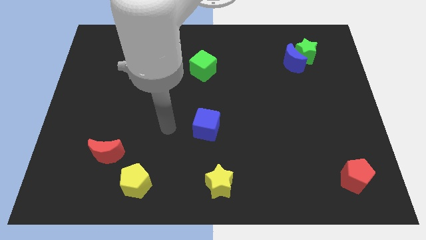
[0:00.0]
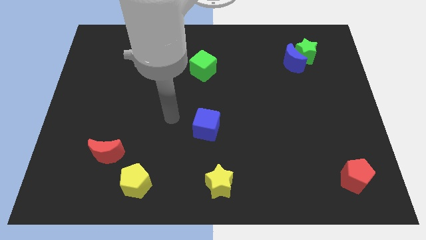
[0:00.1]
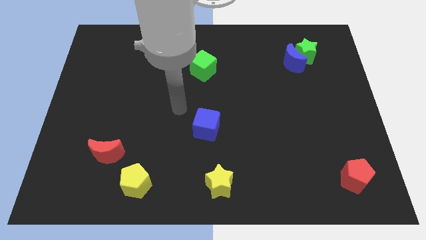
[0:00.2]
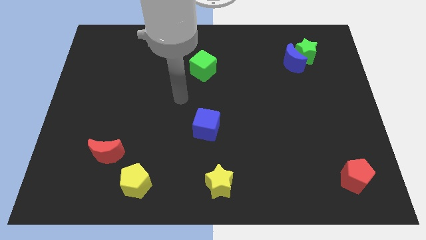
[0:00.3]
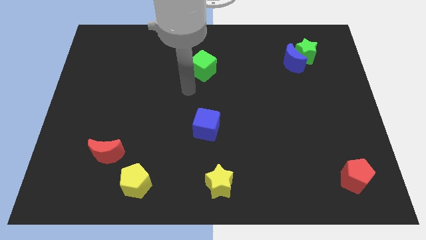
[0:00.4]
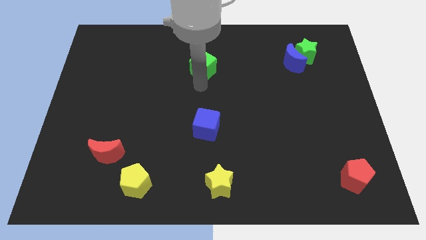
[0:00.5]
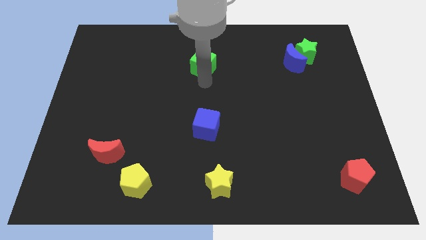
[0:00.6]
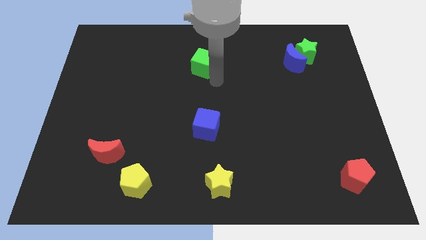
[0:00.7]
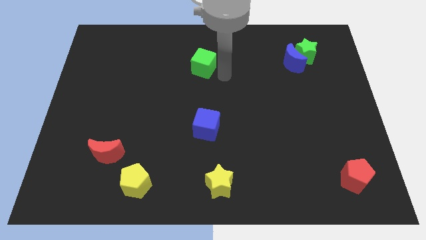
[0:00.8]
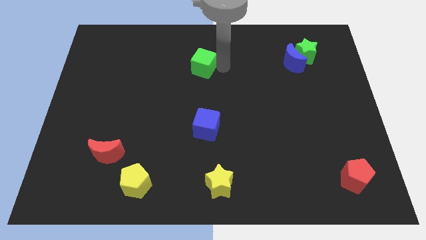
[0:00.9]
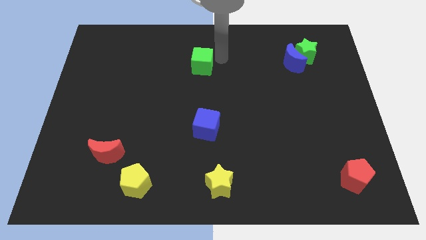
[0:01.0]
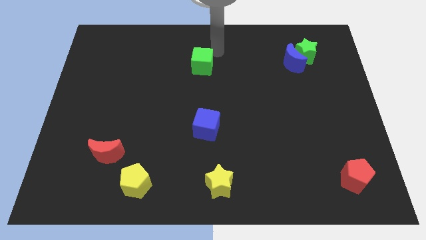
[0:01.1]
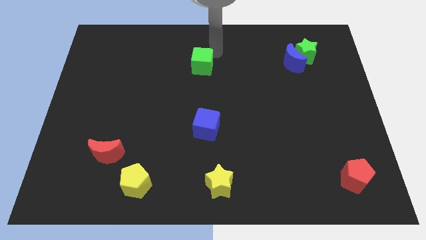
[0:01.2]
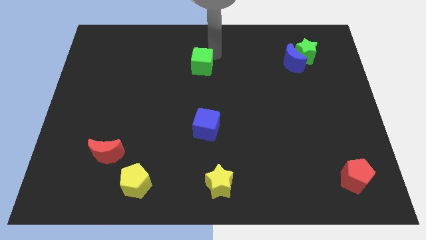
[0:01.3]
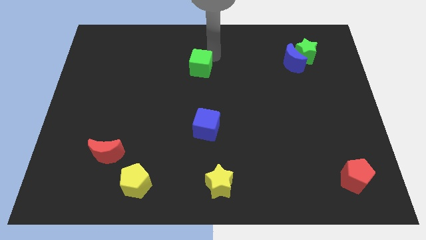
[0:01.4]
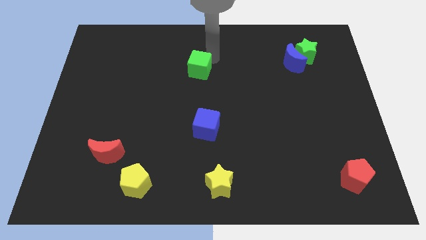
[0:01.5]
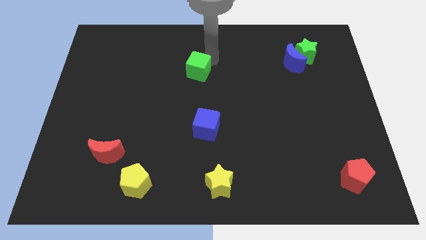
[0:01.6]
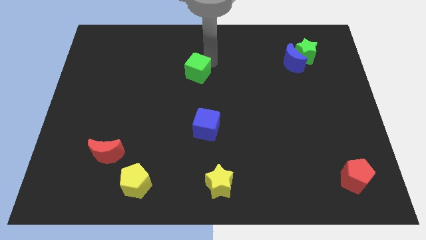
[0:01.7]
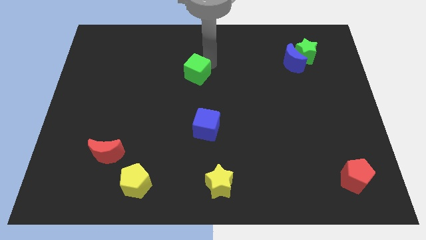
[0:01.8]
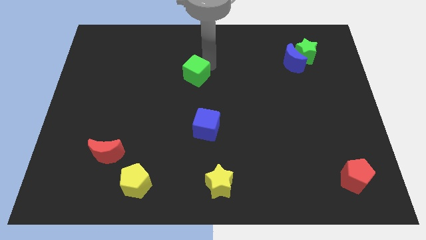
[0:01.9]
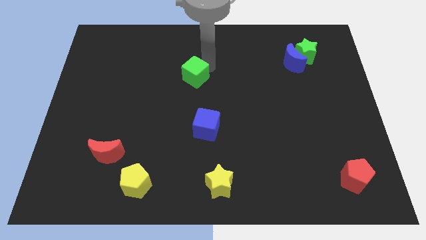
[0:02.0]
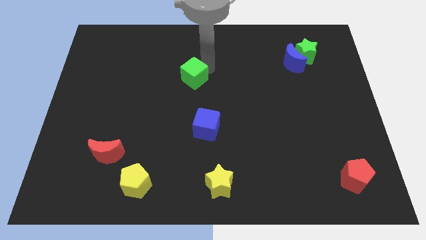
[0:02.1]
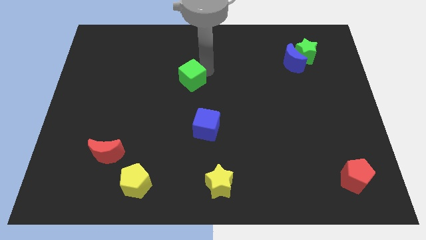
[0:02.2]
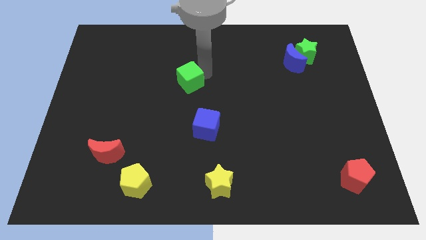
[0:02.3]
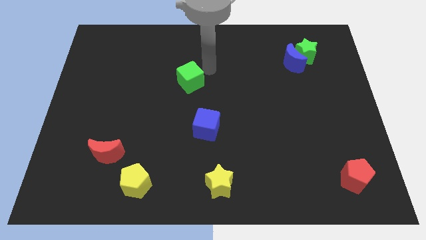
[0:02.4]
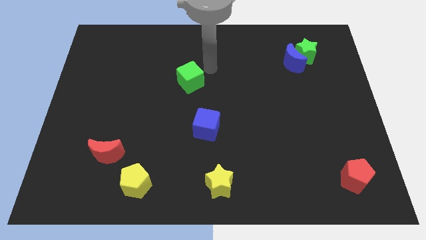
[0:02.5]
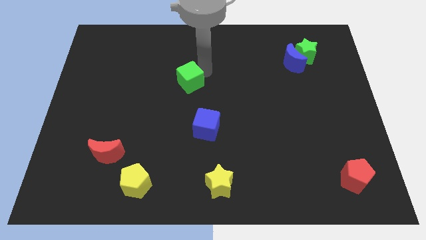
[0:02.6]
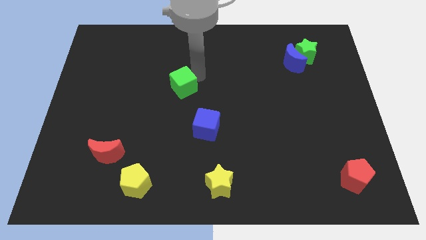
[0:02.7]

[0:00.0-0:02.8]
push the green cube downwards and left diagonally a little

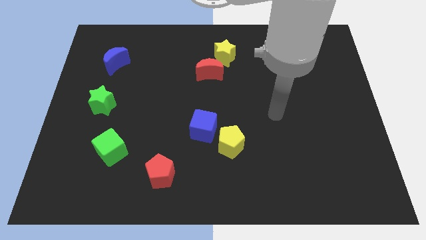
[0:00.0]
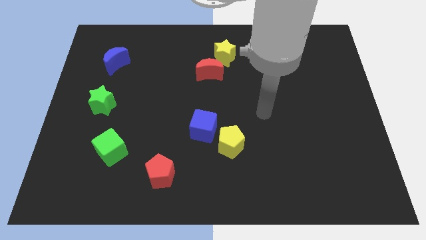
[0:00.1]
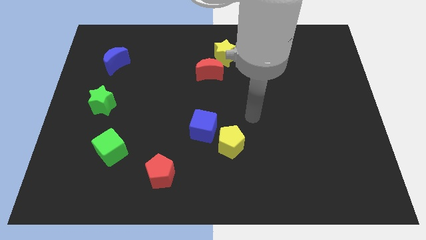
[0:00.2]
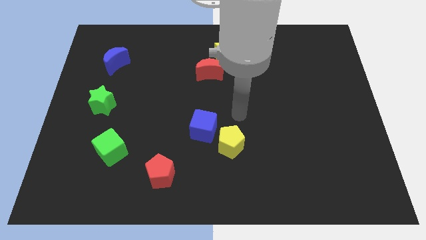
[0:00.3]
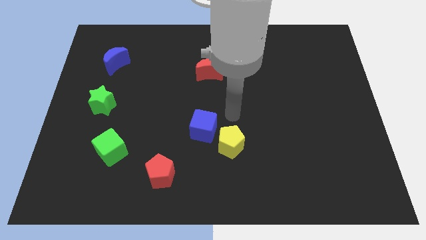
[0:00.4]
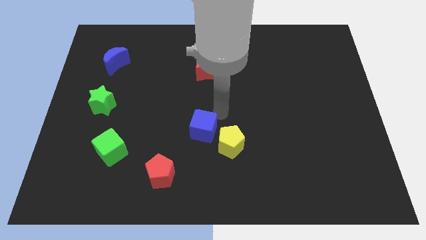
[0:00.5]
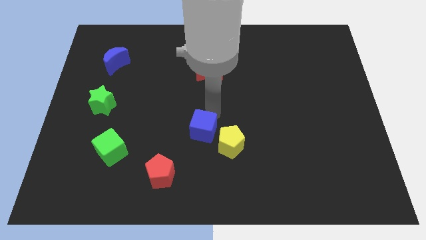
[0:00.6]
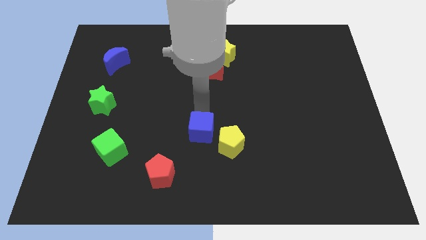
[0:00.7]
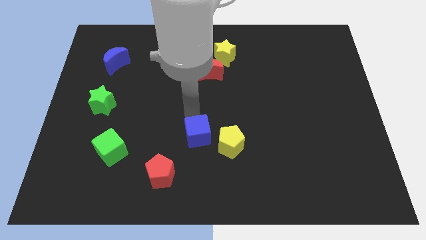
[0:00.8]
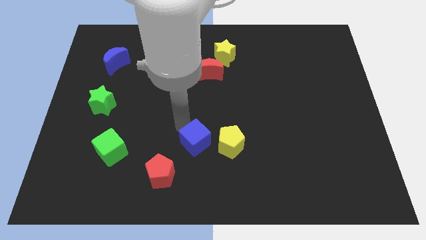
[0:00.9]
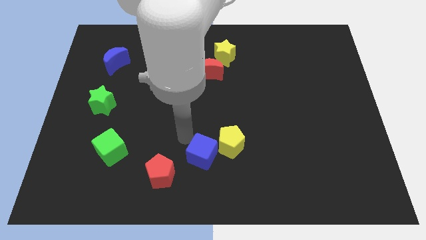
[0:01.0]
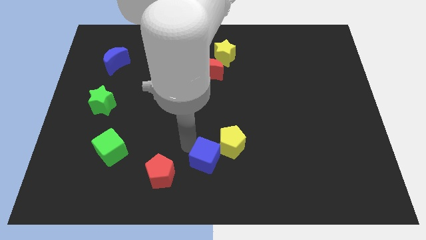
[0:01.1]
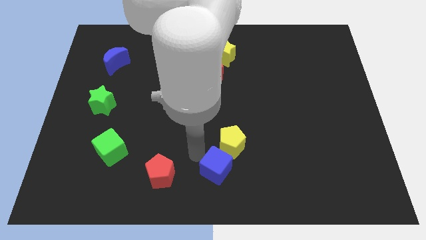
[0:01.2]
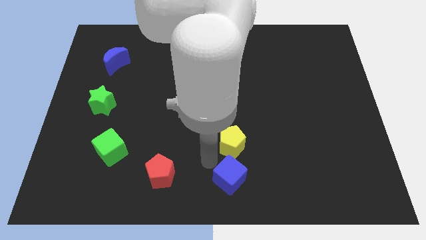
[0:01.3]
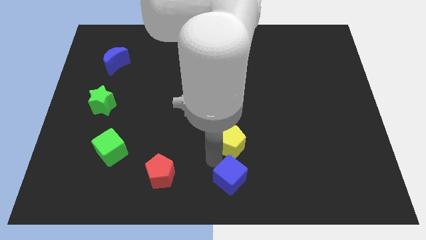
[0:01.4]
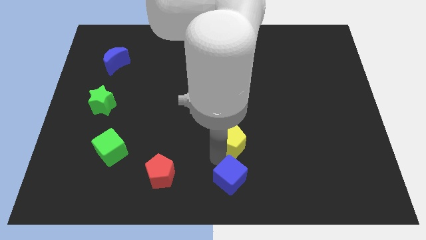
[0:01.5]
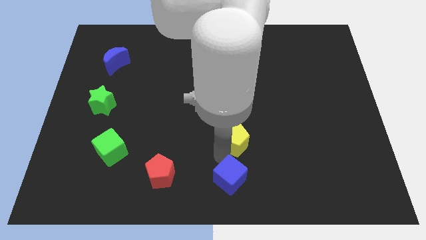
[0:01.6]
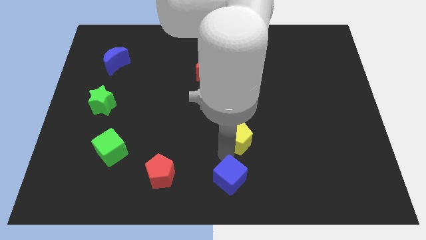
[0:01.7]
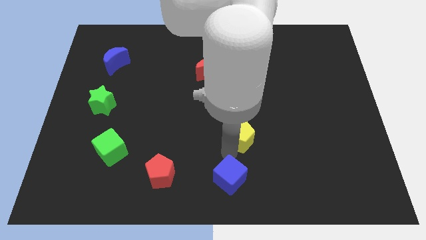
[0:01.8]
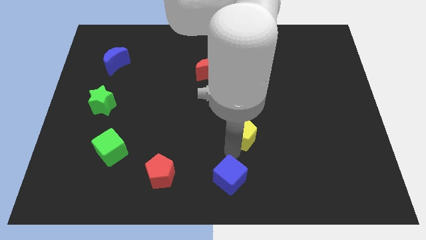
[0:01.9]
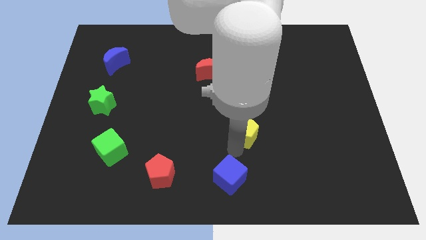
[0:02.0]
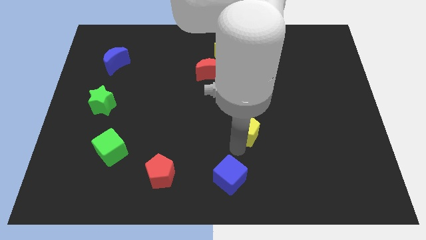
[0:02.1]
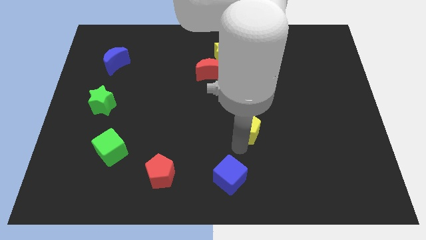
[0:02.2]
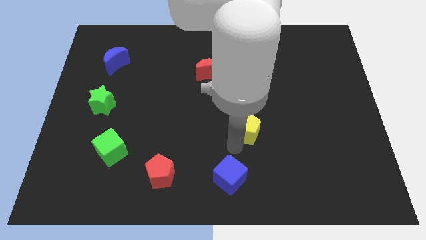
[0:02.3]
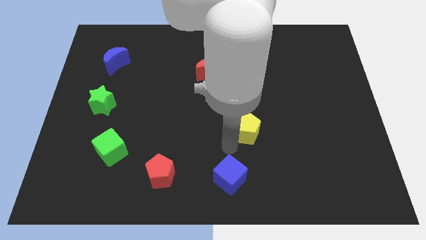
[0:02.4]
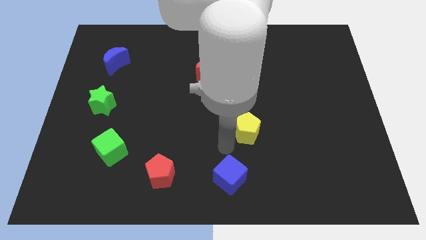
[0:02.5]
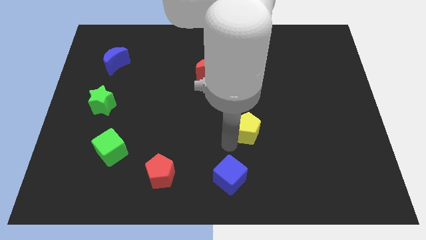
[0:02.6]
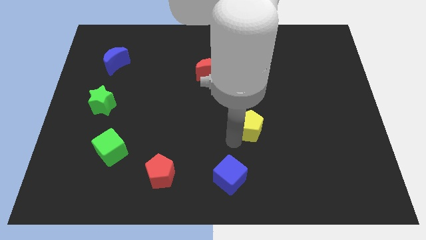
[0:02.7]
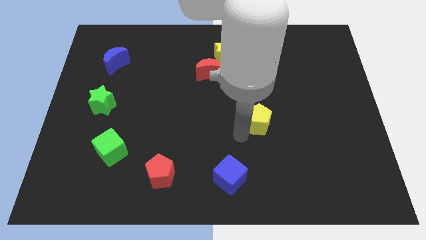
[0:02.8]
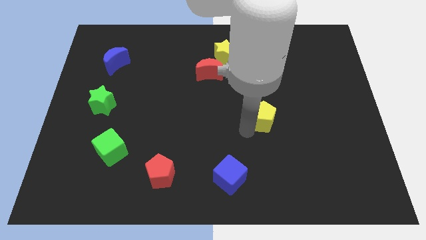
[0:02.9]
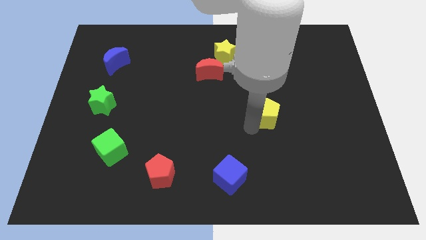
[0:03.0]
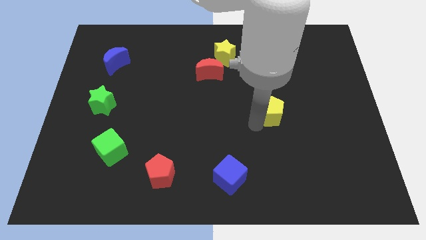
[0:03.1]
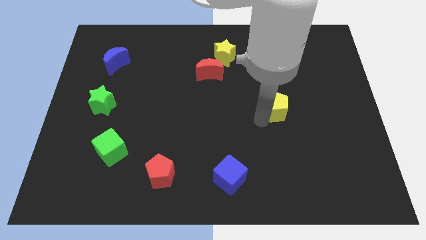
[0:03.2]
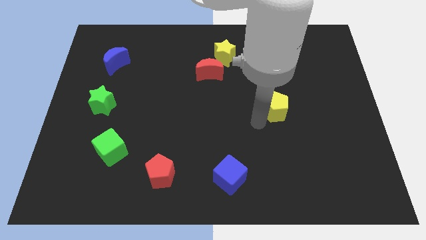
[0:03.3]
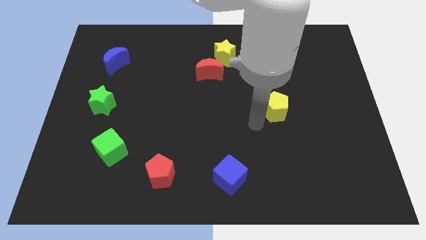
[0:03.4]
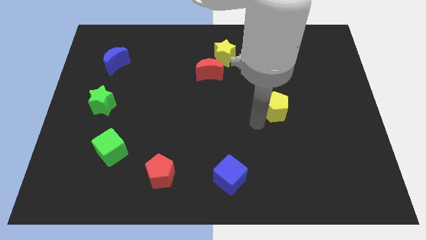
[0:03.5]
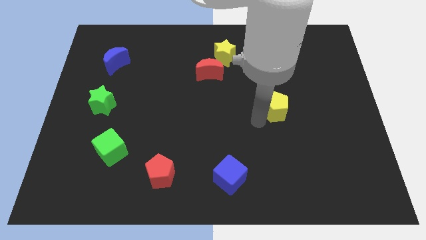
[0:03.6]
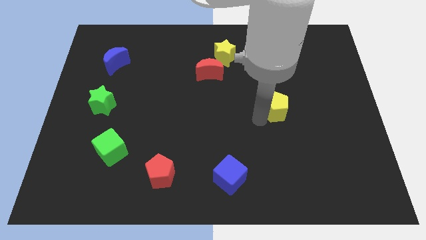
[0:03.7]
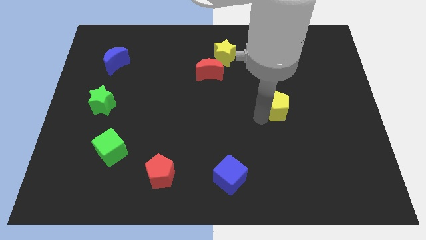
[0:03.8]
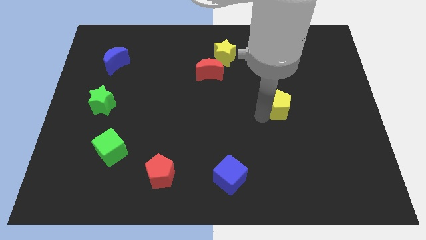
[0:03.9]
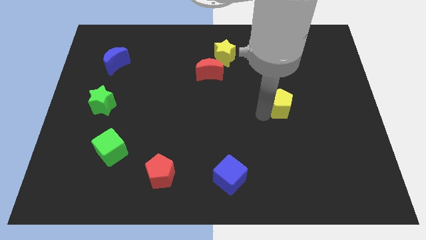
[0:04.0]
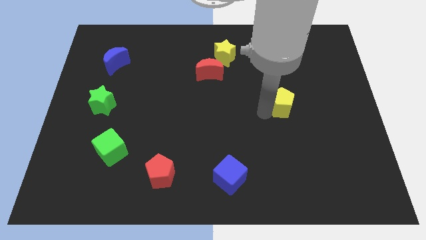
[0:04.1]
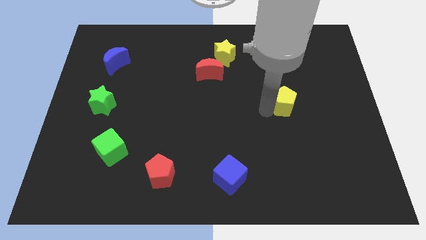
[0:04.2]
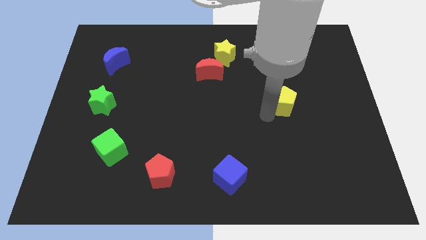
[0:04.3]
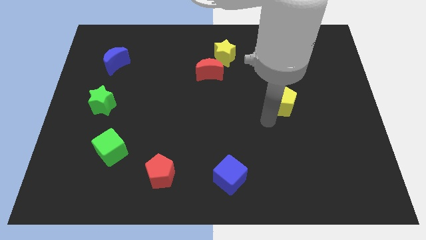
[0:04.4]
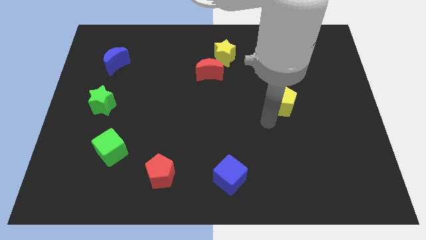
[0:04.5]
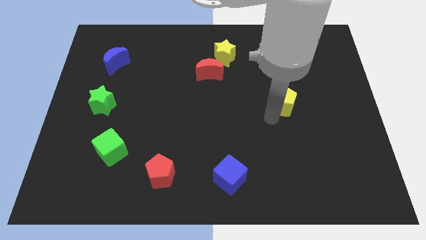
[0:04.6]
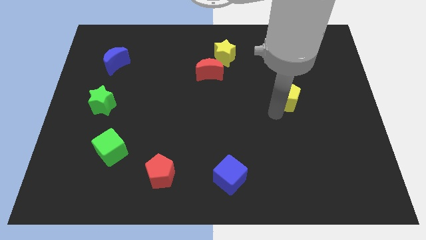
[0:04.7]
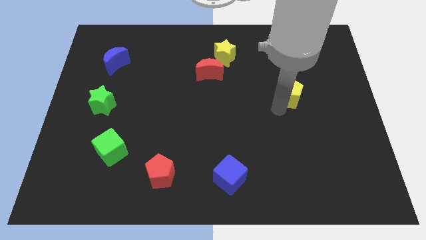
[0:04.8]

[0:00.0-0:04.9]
slide the yellow pentagon up and right

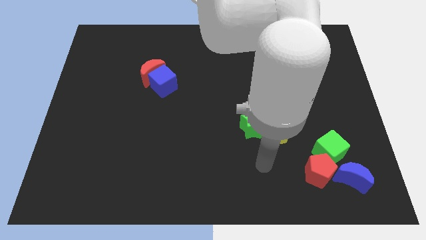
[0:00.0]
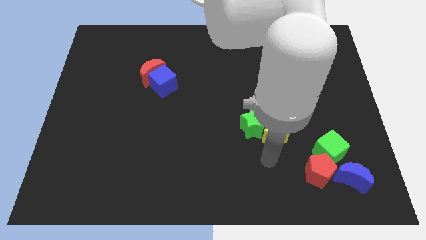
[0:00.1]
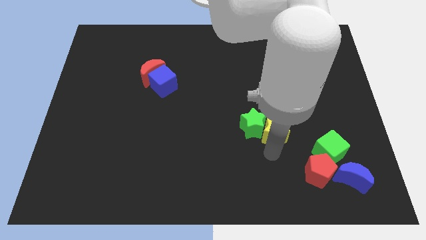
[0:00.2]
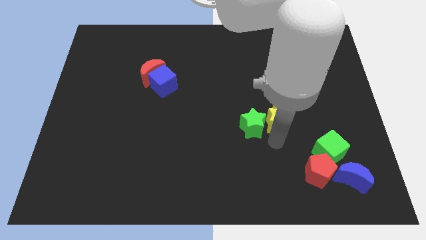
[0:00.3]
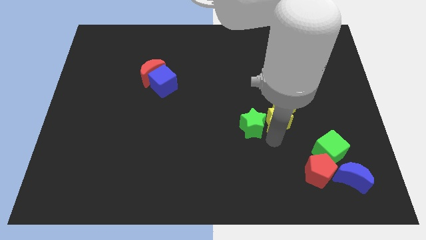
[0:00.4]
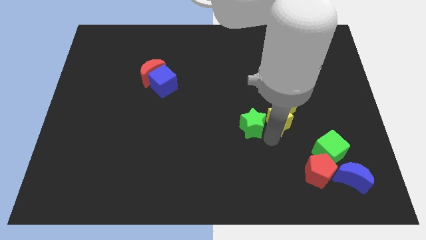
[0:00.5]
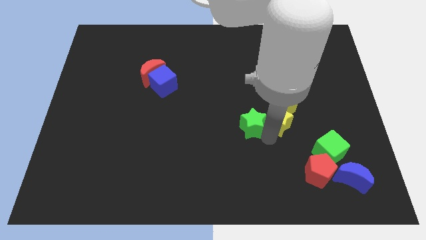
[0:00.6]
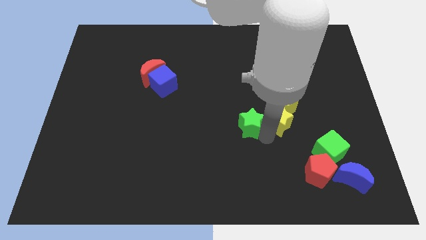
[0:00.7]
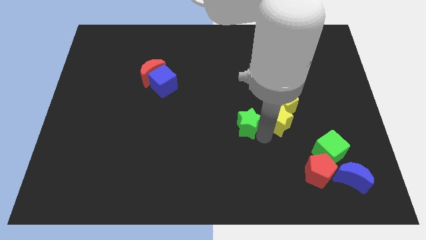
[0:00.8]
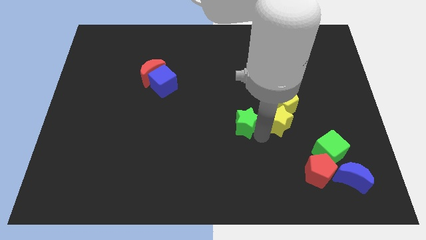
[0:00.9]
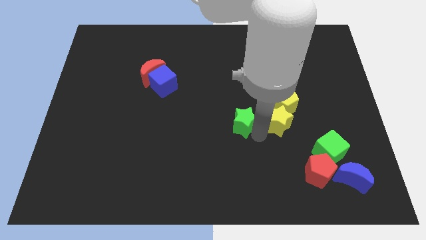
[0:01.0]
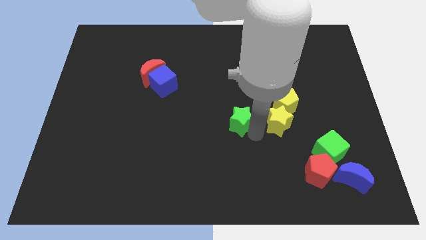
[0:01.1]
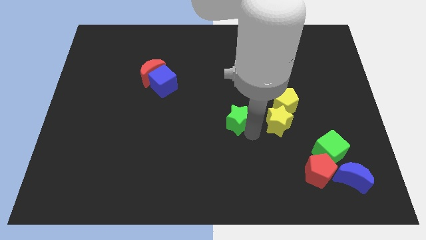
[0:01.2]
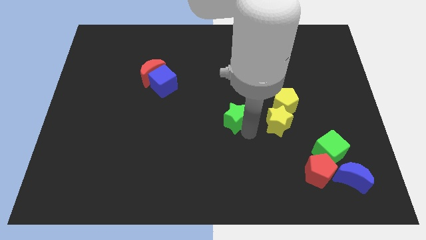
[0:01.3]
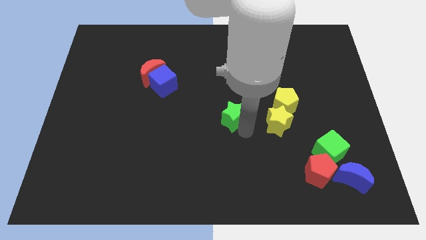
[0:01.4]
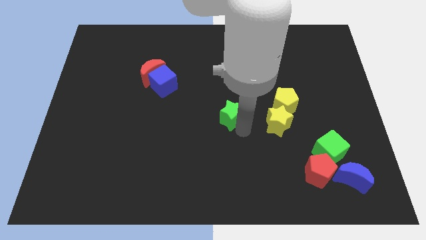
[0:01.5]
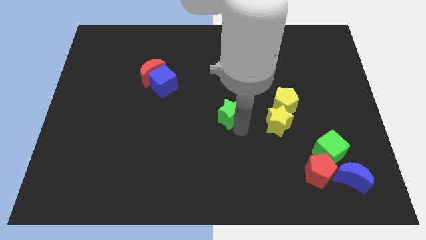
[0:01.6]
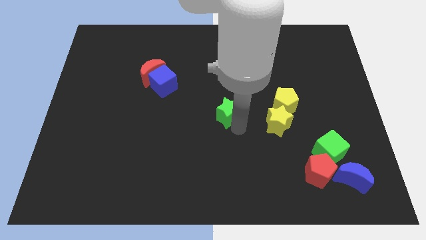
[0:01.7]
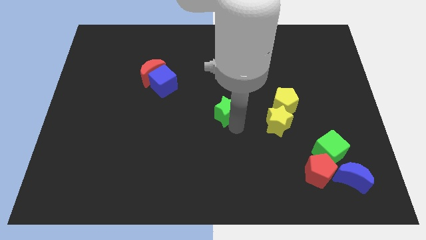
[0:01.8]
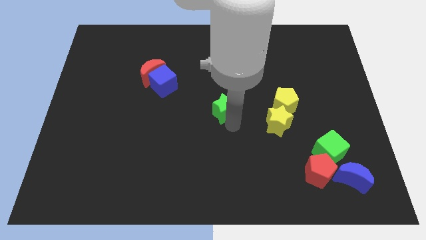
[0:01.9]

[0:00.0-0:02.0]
push the green star slightly upwards and then left
